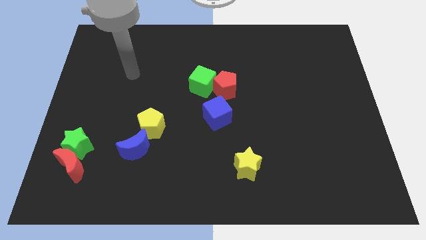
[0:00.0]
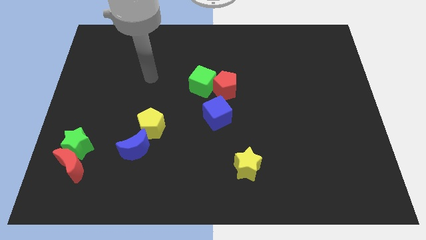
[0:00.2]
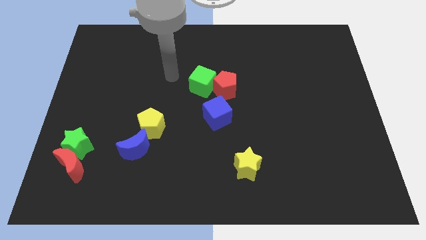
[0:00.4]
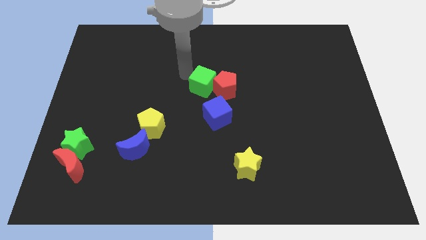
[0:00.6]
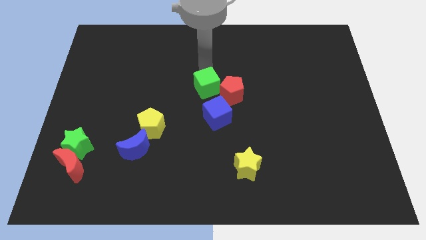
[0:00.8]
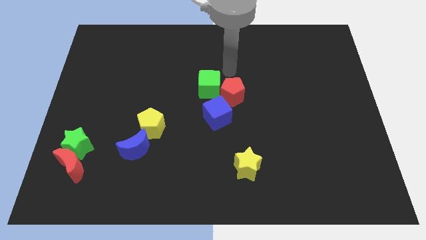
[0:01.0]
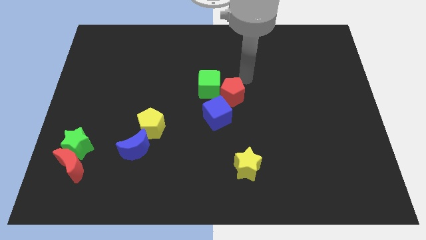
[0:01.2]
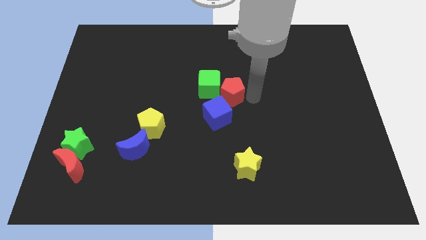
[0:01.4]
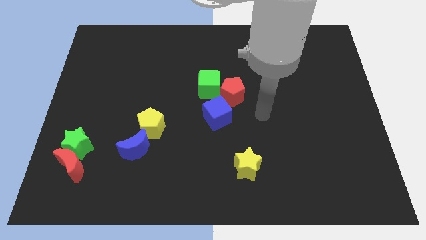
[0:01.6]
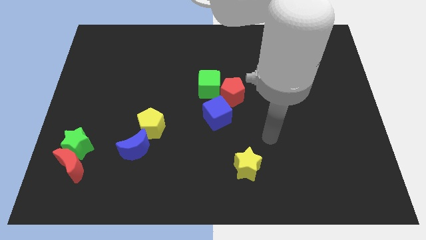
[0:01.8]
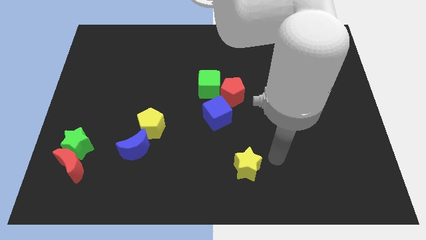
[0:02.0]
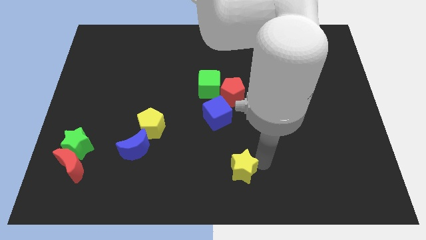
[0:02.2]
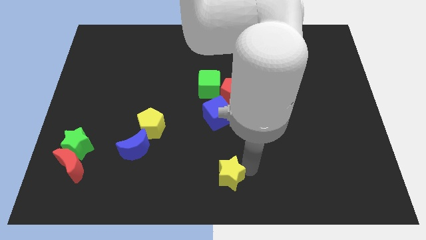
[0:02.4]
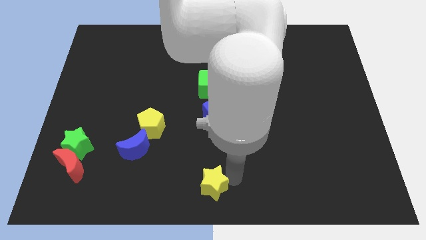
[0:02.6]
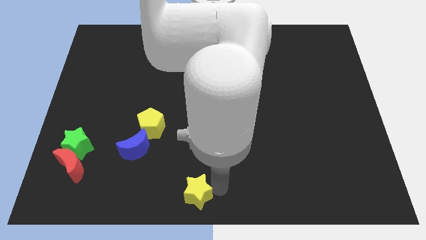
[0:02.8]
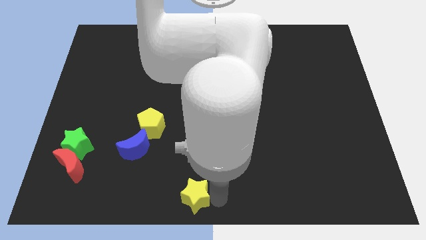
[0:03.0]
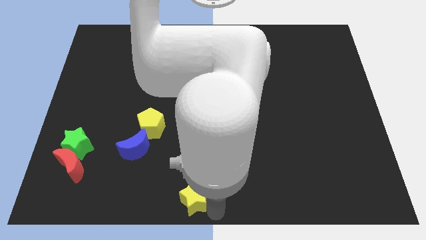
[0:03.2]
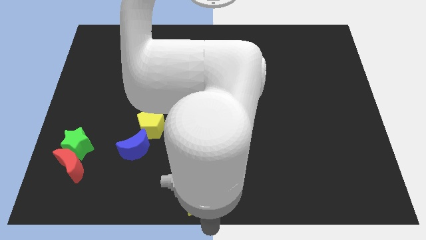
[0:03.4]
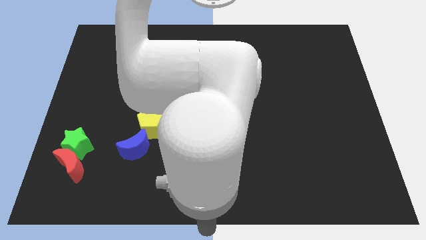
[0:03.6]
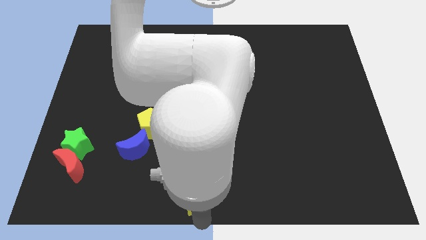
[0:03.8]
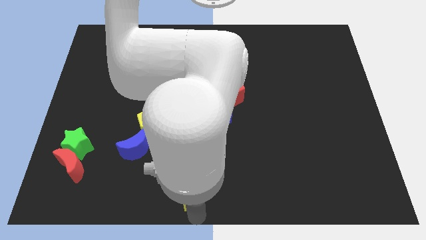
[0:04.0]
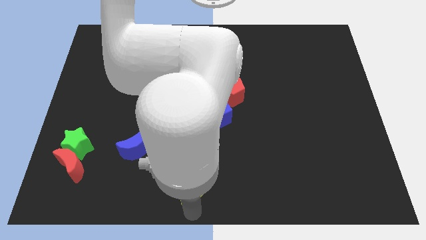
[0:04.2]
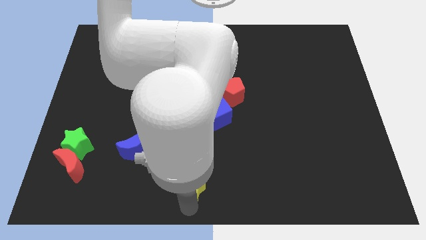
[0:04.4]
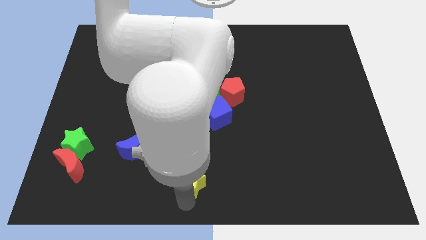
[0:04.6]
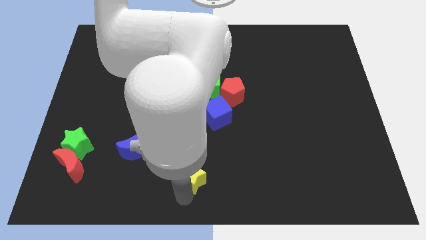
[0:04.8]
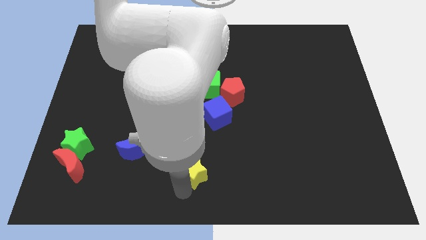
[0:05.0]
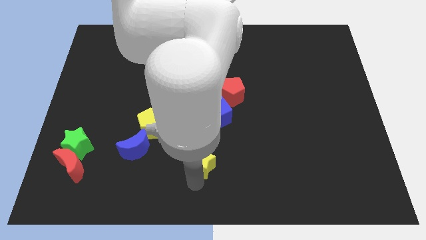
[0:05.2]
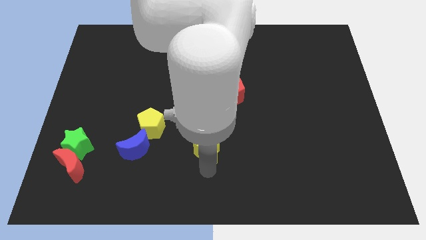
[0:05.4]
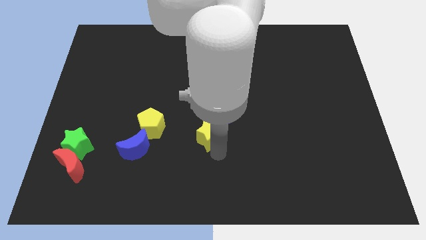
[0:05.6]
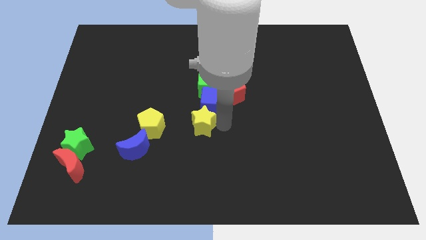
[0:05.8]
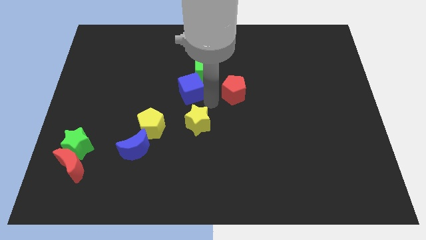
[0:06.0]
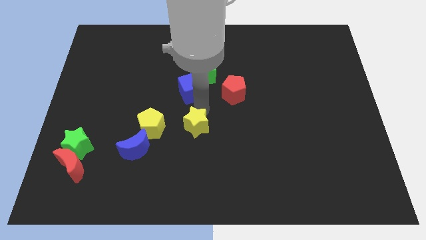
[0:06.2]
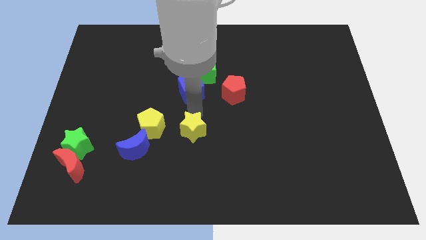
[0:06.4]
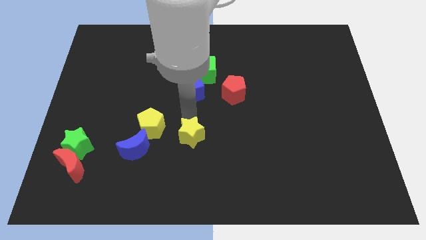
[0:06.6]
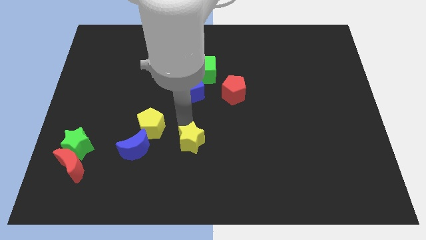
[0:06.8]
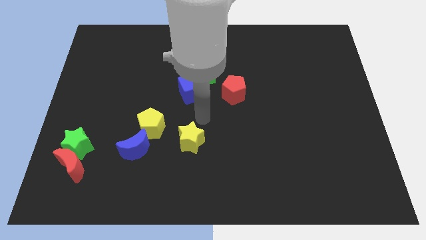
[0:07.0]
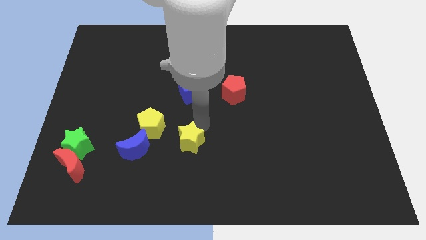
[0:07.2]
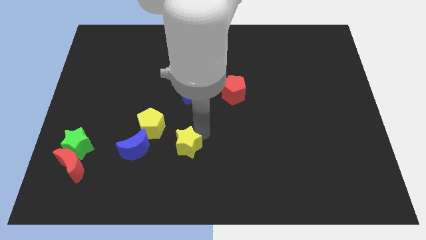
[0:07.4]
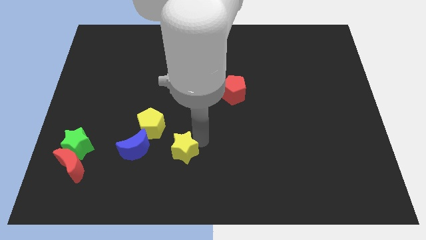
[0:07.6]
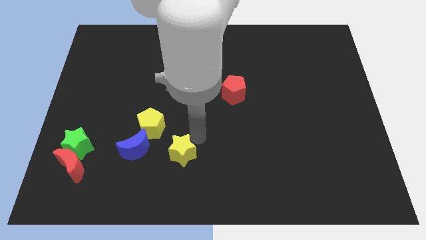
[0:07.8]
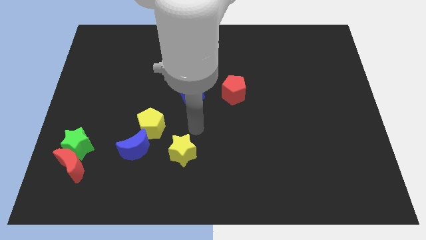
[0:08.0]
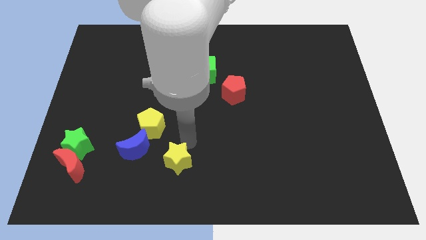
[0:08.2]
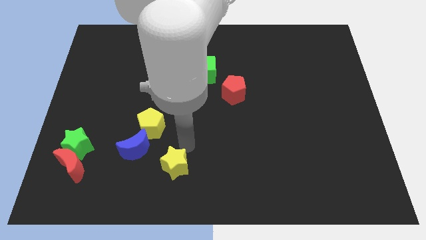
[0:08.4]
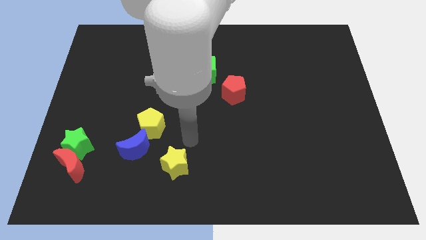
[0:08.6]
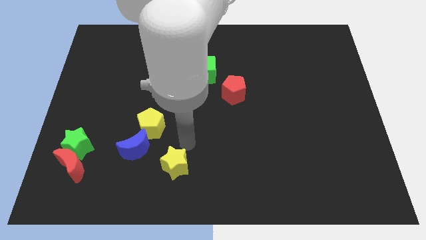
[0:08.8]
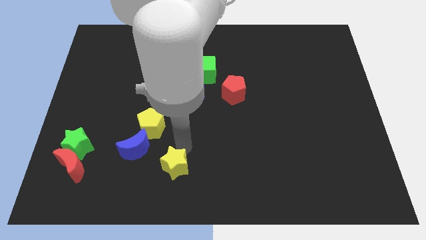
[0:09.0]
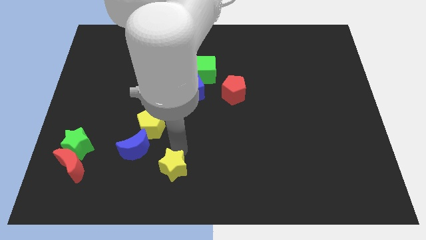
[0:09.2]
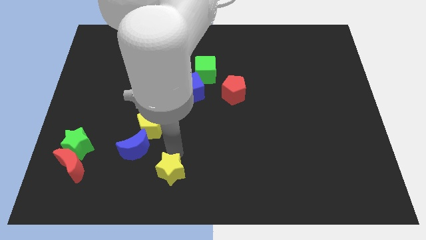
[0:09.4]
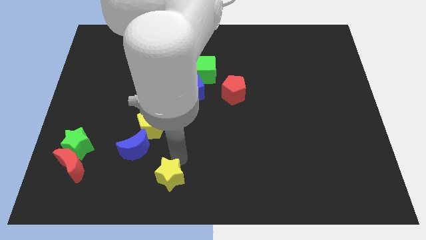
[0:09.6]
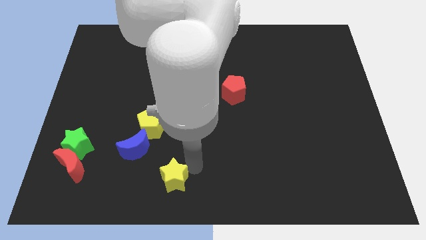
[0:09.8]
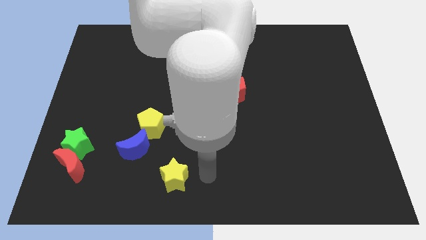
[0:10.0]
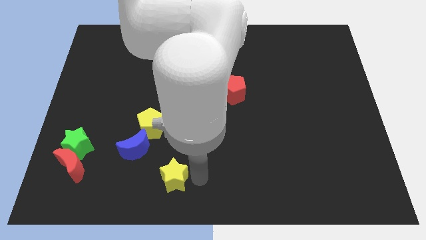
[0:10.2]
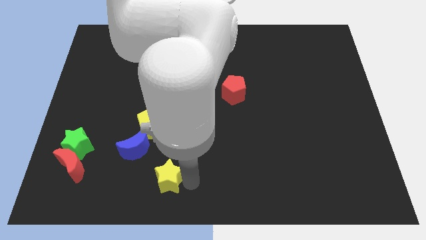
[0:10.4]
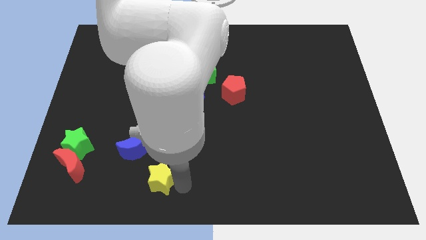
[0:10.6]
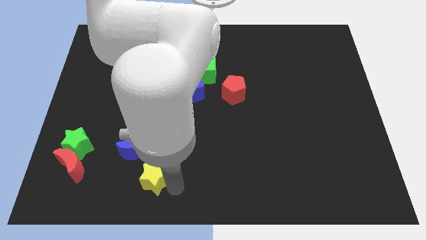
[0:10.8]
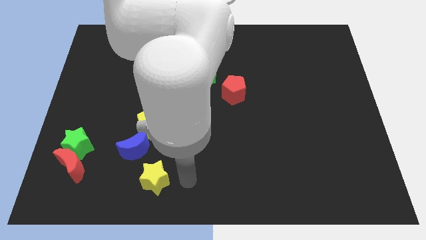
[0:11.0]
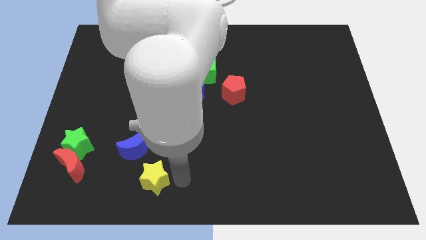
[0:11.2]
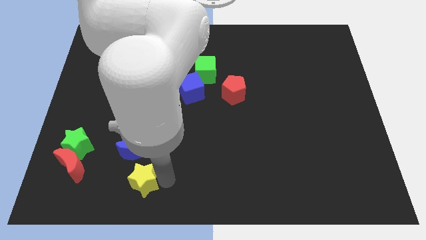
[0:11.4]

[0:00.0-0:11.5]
slide the yellow star to the left

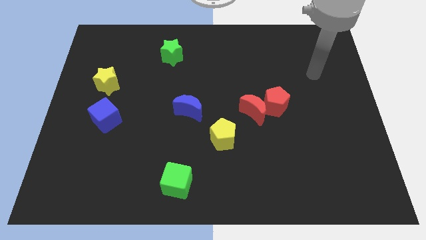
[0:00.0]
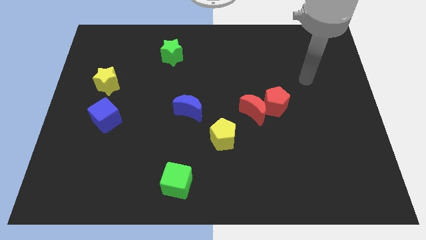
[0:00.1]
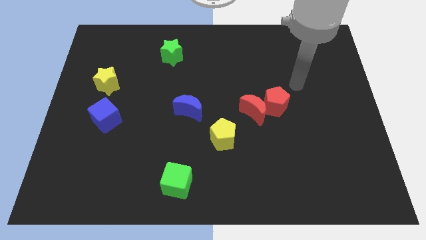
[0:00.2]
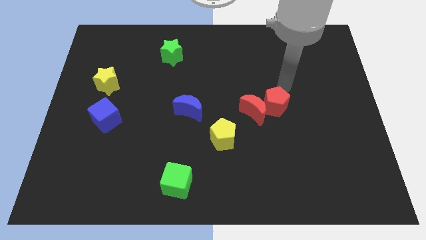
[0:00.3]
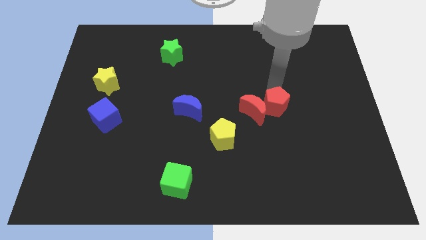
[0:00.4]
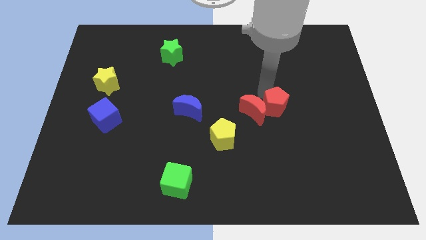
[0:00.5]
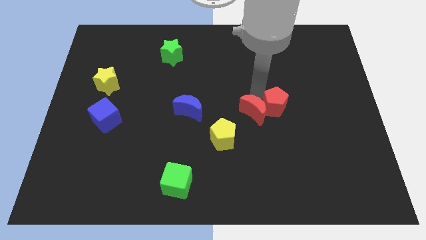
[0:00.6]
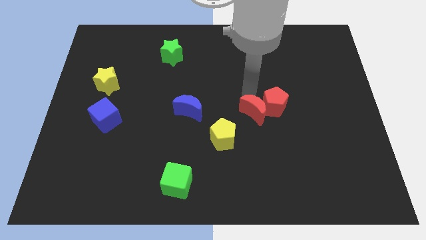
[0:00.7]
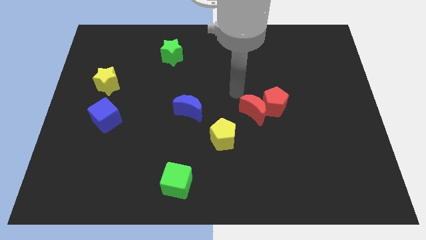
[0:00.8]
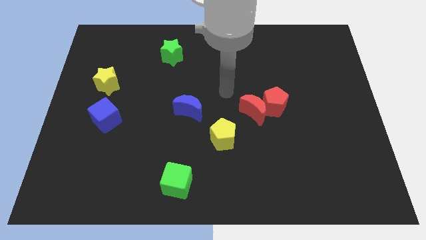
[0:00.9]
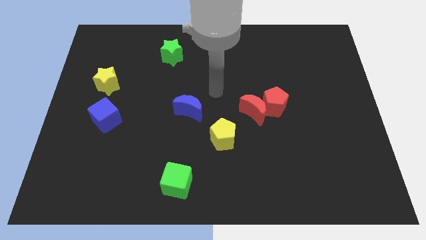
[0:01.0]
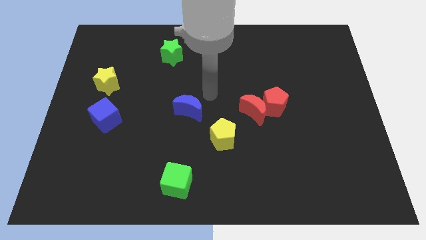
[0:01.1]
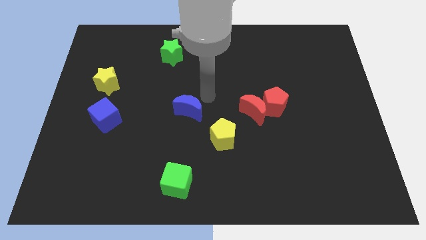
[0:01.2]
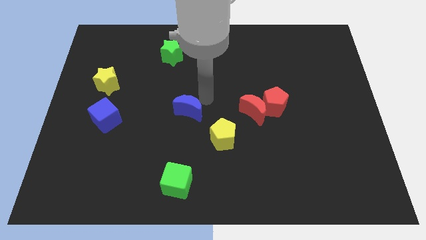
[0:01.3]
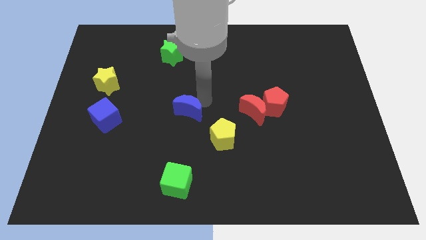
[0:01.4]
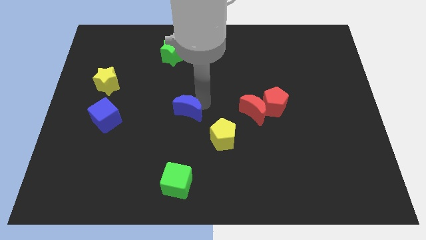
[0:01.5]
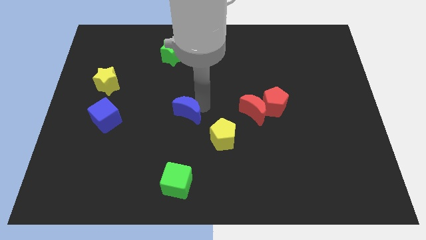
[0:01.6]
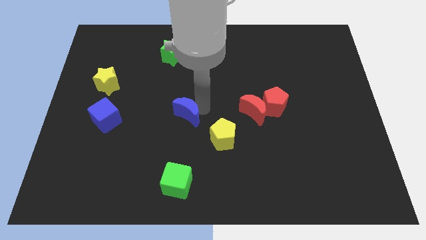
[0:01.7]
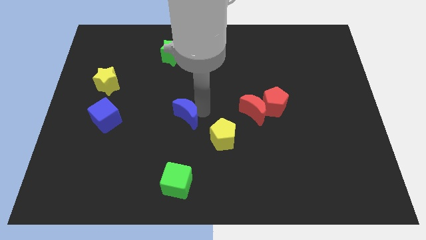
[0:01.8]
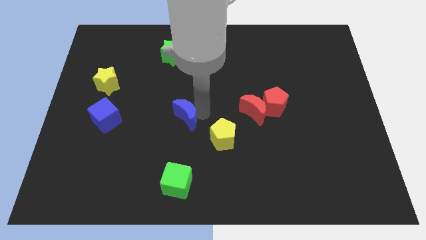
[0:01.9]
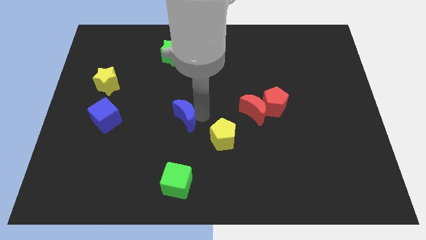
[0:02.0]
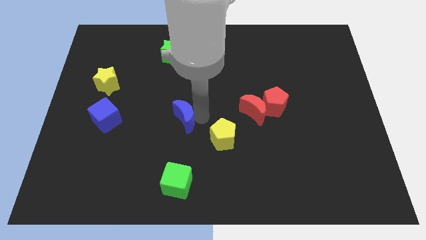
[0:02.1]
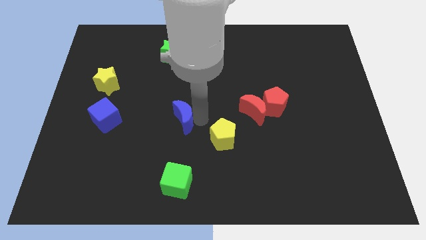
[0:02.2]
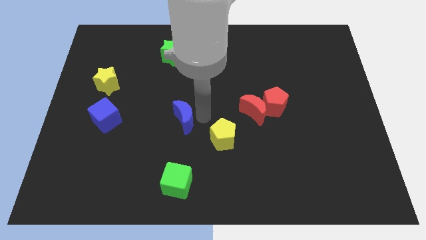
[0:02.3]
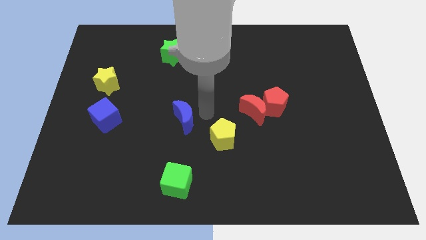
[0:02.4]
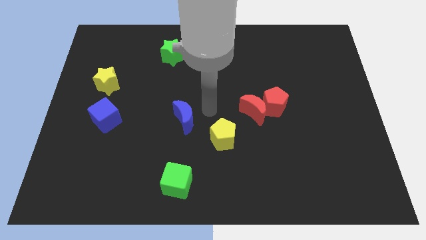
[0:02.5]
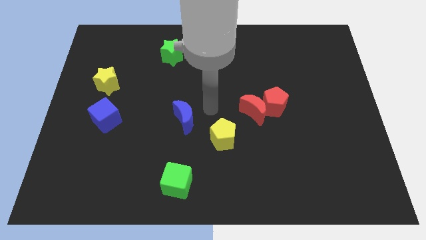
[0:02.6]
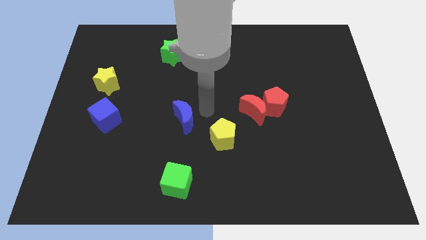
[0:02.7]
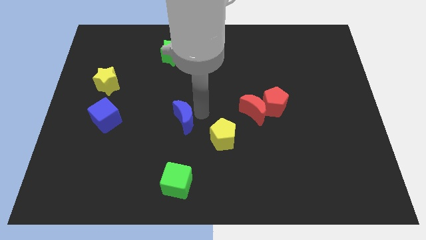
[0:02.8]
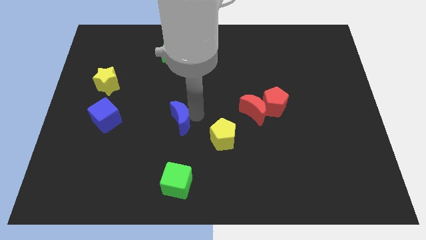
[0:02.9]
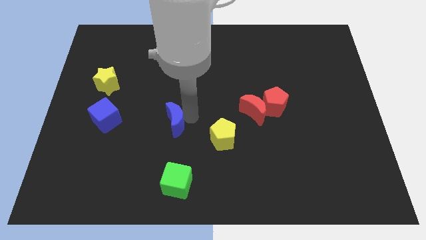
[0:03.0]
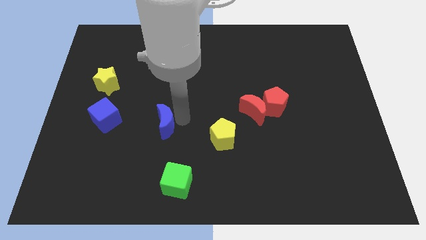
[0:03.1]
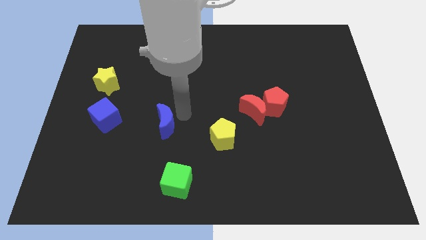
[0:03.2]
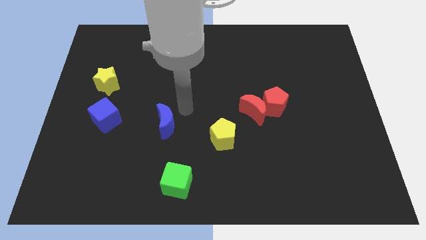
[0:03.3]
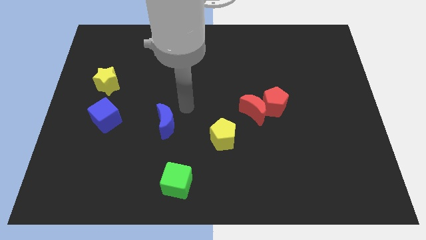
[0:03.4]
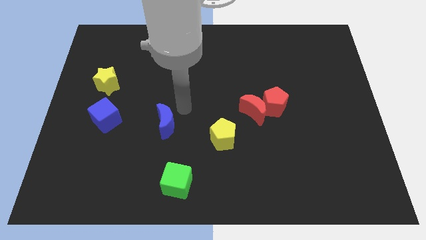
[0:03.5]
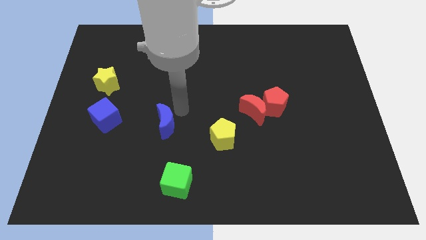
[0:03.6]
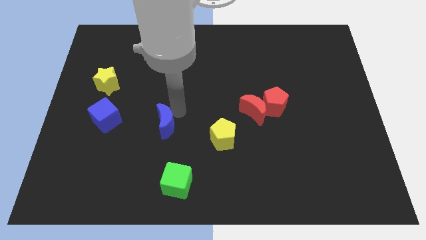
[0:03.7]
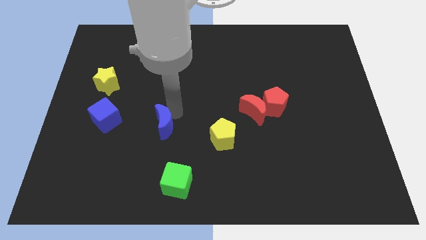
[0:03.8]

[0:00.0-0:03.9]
slightly move the blue moon downwards and then left
